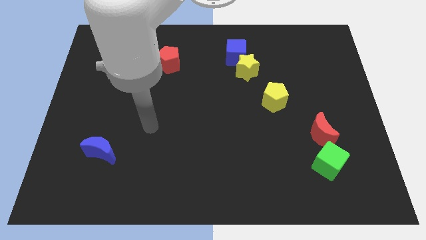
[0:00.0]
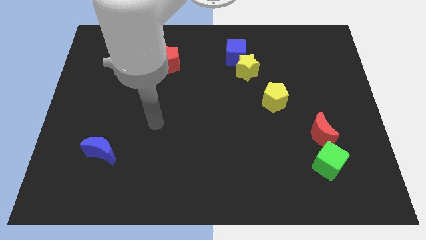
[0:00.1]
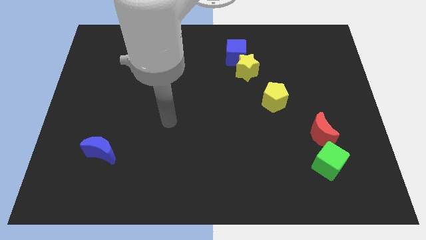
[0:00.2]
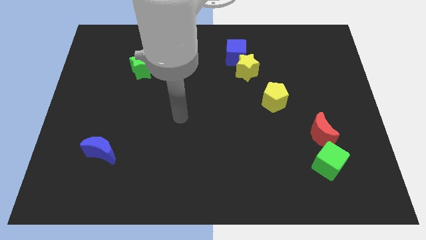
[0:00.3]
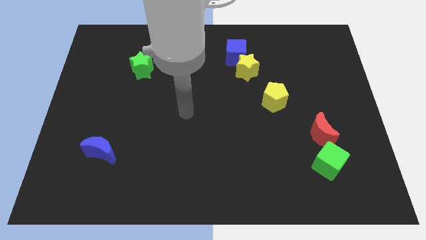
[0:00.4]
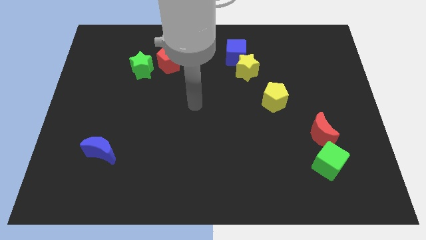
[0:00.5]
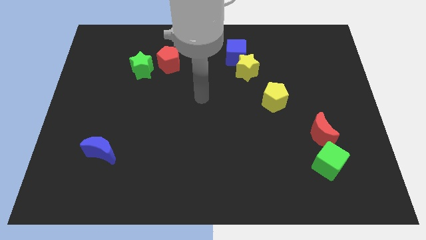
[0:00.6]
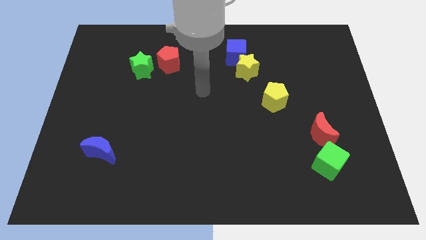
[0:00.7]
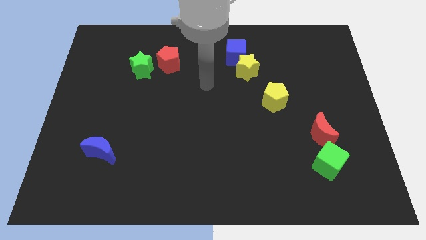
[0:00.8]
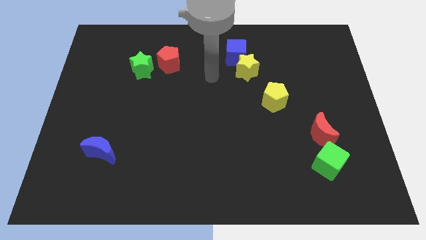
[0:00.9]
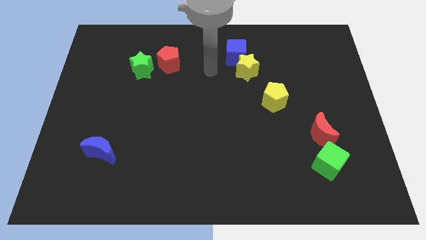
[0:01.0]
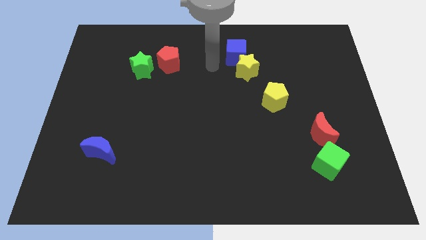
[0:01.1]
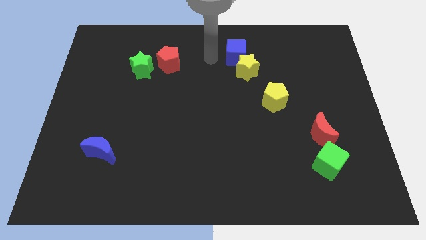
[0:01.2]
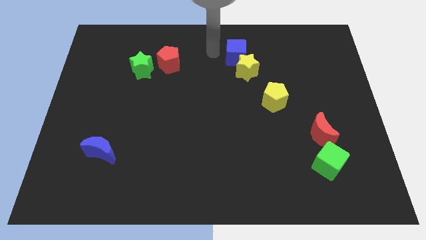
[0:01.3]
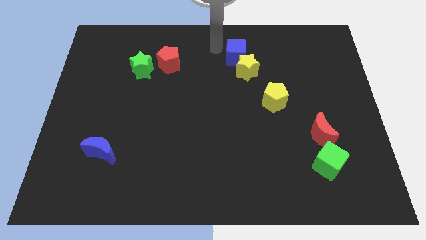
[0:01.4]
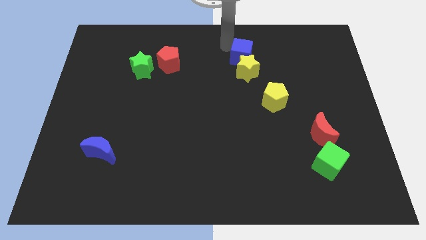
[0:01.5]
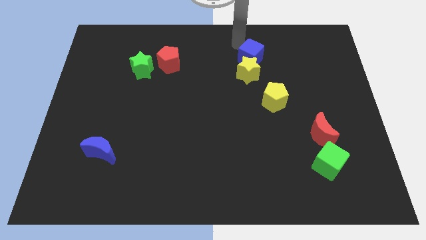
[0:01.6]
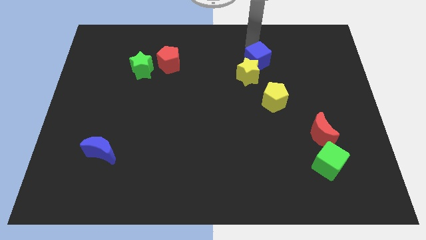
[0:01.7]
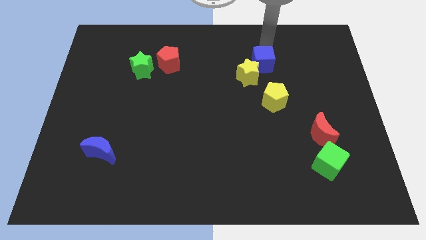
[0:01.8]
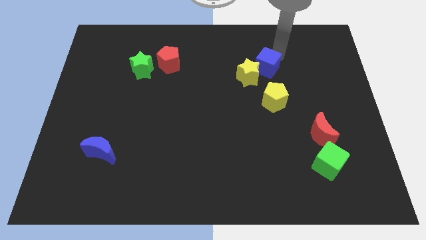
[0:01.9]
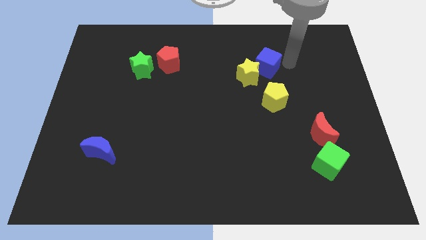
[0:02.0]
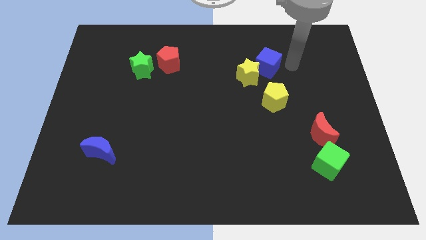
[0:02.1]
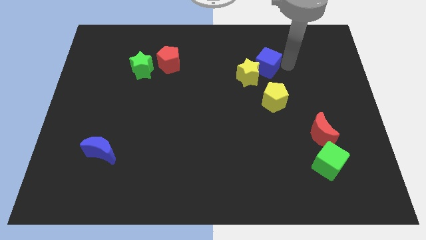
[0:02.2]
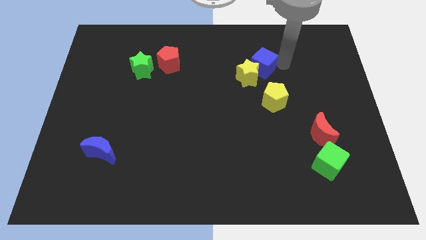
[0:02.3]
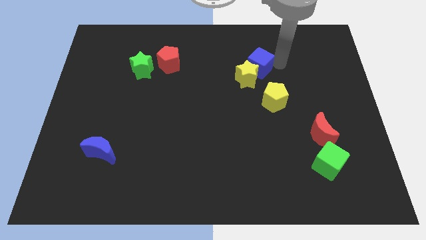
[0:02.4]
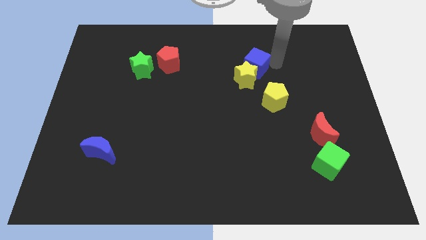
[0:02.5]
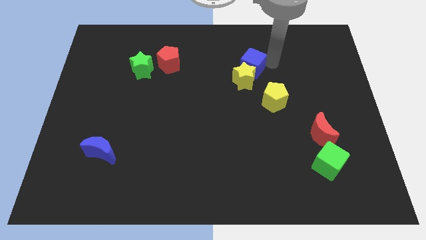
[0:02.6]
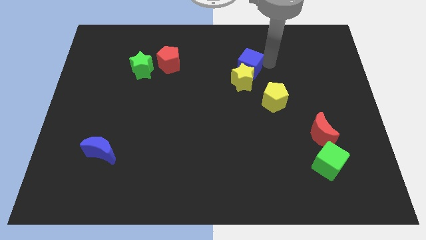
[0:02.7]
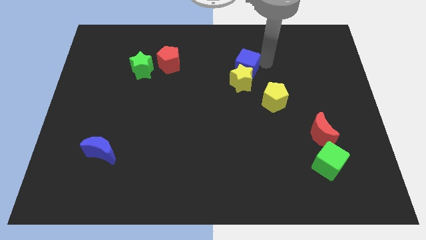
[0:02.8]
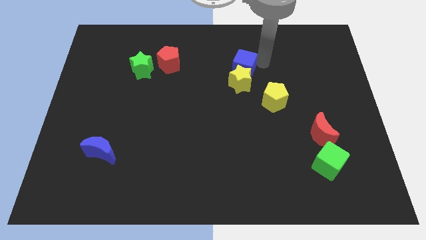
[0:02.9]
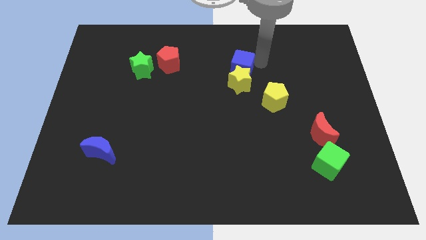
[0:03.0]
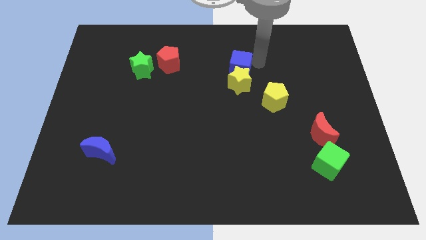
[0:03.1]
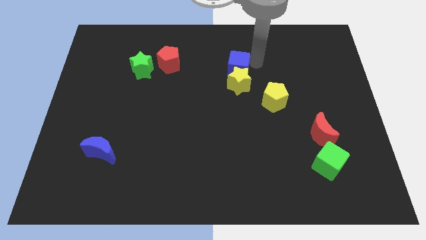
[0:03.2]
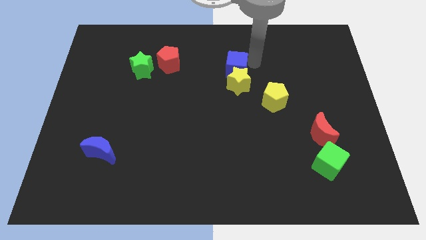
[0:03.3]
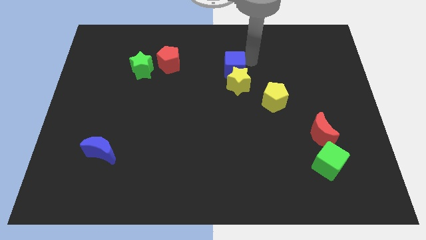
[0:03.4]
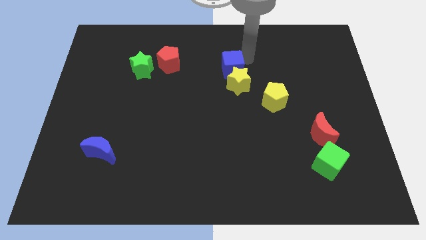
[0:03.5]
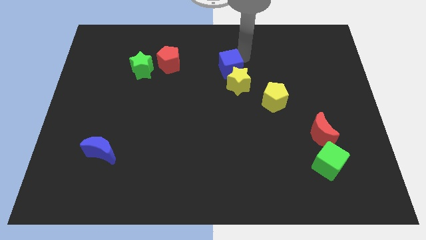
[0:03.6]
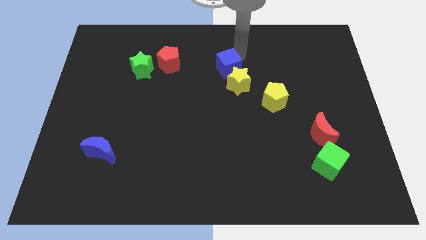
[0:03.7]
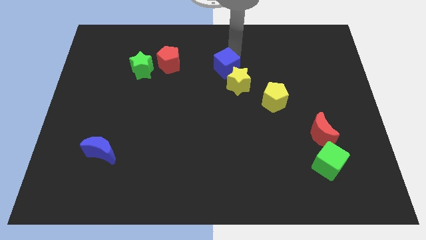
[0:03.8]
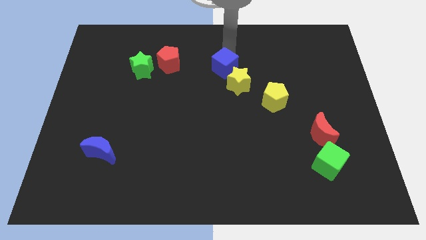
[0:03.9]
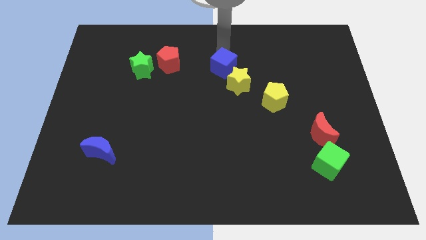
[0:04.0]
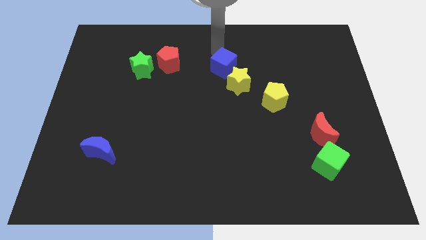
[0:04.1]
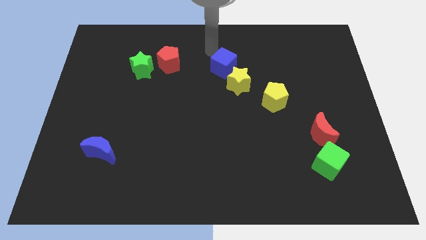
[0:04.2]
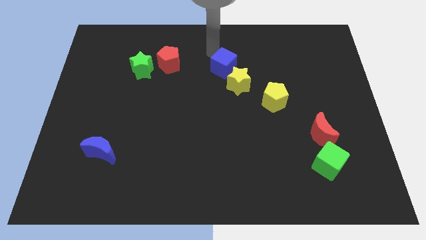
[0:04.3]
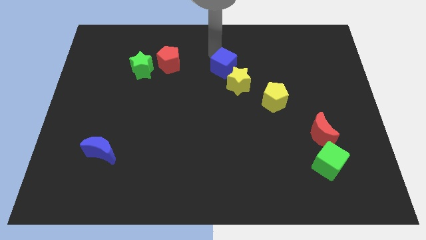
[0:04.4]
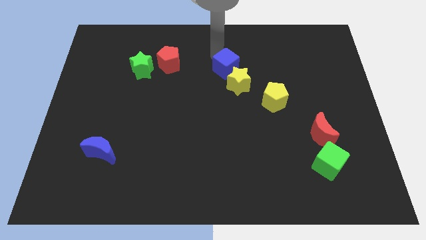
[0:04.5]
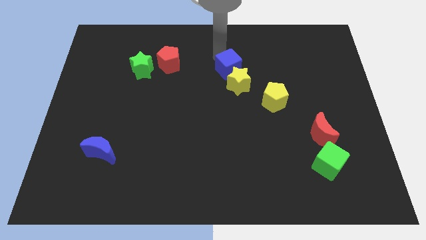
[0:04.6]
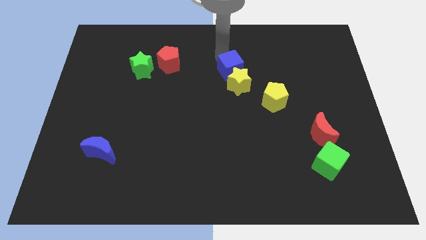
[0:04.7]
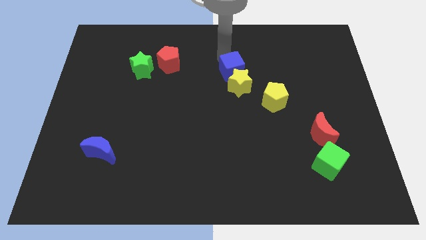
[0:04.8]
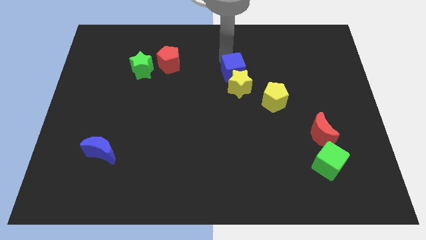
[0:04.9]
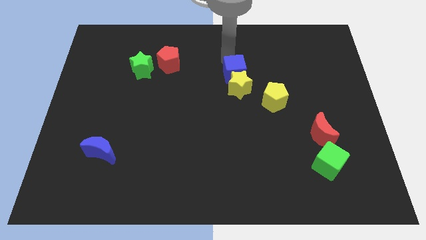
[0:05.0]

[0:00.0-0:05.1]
move the blue cube diagonally up and to the left of the yellow pentagon

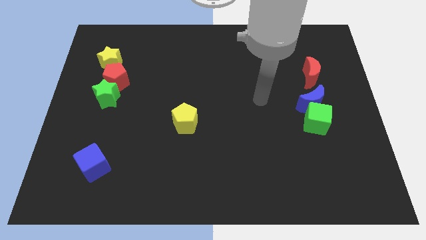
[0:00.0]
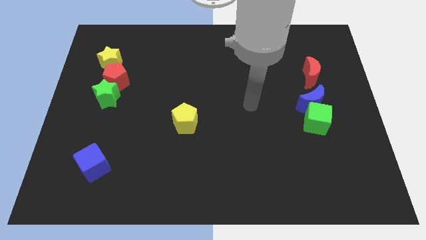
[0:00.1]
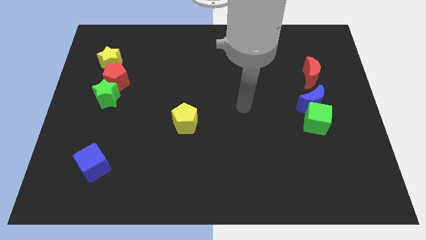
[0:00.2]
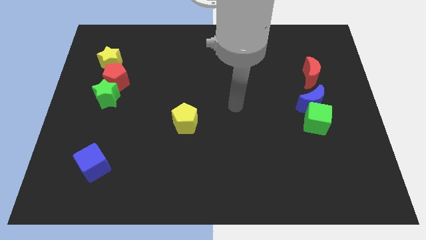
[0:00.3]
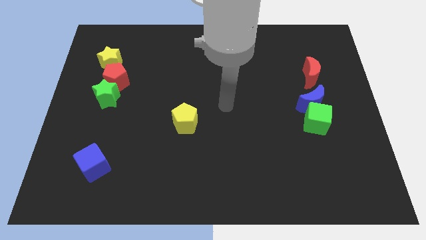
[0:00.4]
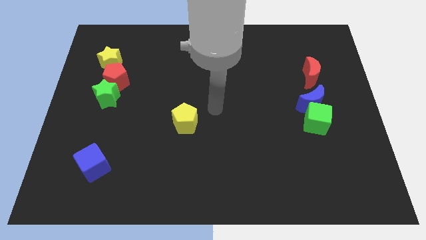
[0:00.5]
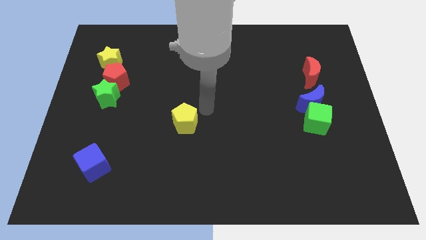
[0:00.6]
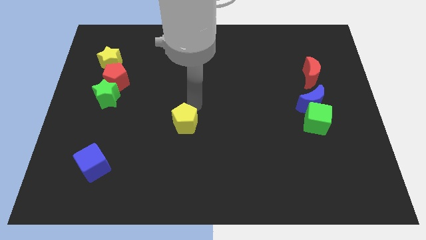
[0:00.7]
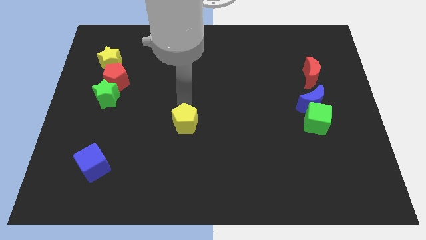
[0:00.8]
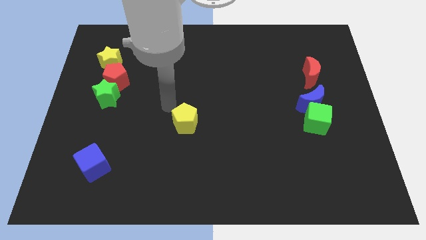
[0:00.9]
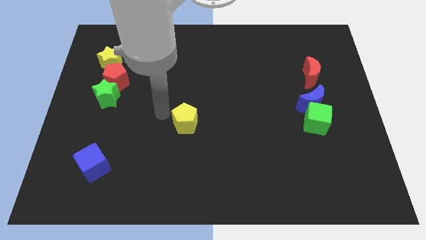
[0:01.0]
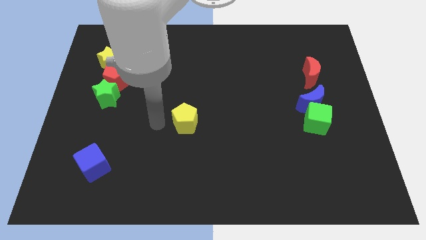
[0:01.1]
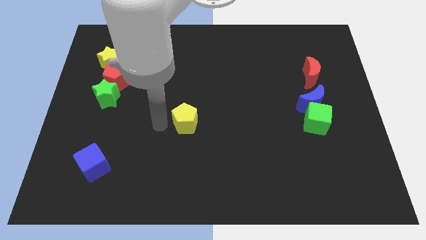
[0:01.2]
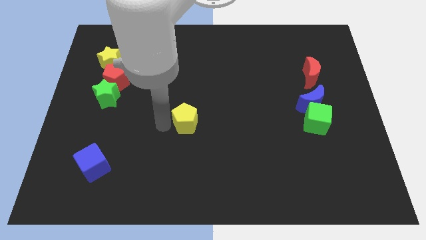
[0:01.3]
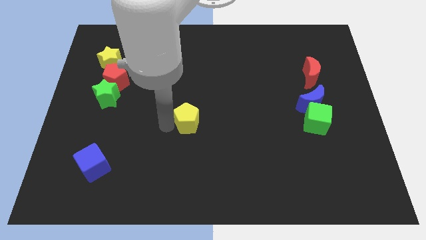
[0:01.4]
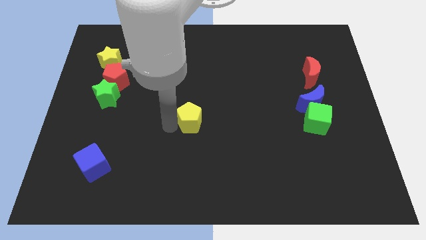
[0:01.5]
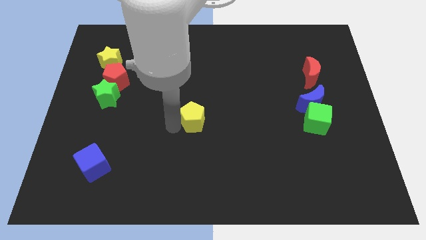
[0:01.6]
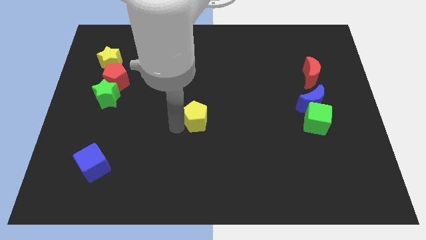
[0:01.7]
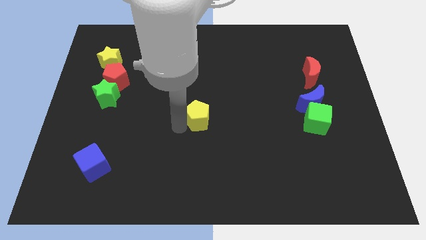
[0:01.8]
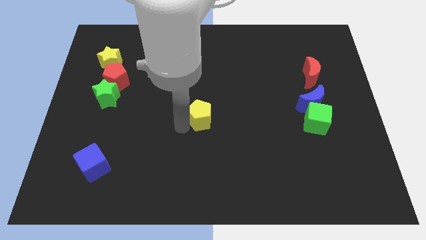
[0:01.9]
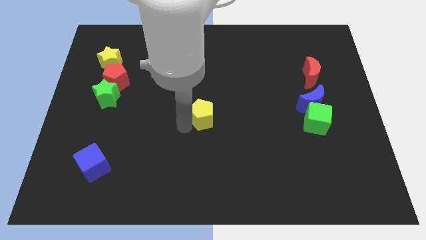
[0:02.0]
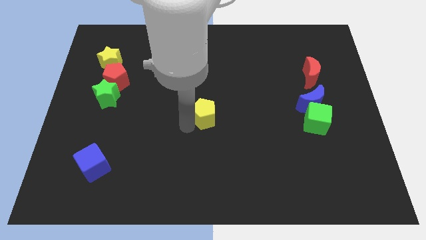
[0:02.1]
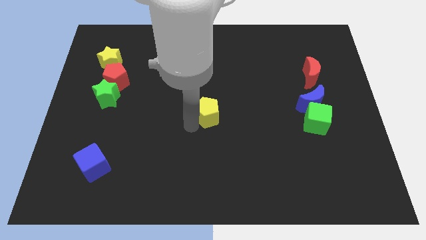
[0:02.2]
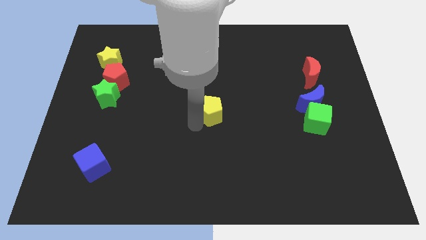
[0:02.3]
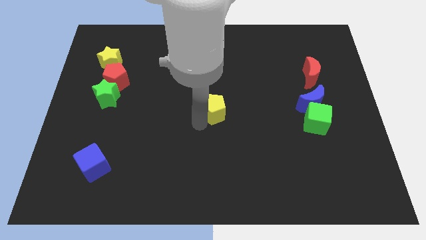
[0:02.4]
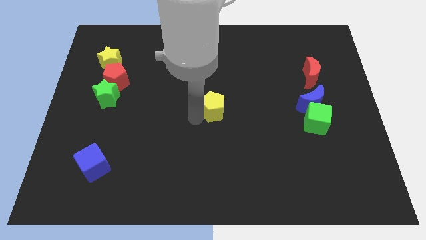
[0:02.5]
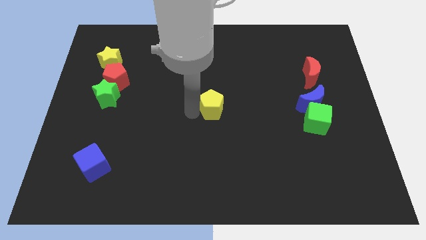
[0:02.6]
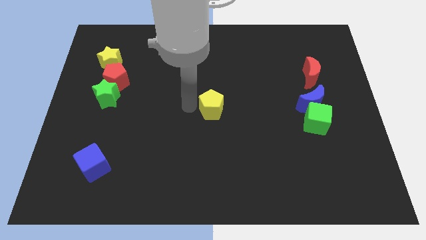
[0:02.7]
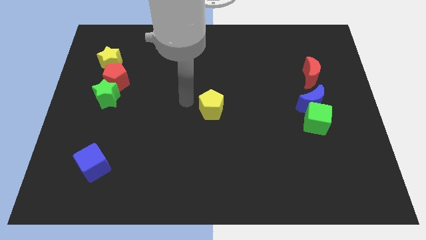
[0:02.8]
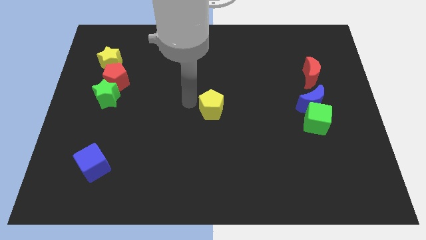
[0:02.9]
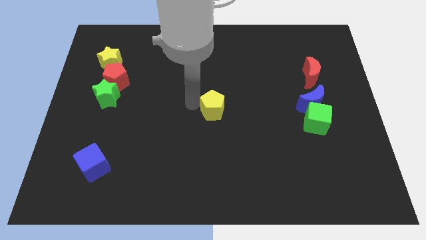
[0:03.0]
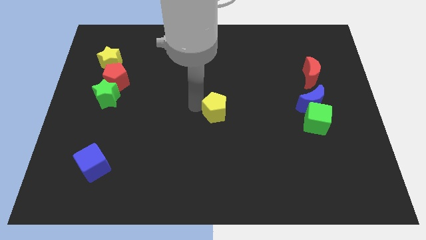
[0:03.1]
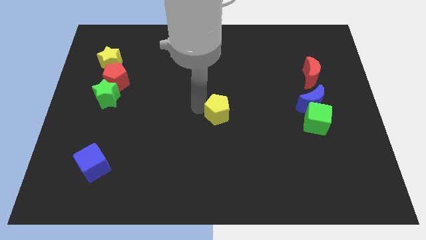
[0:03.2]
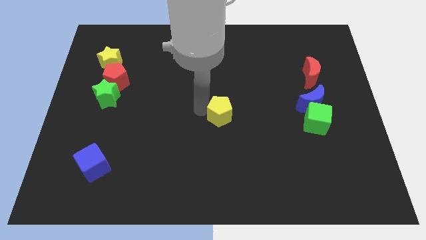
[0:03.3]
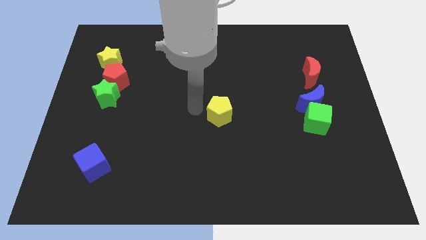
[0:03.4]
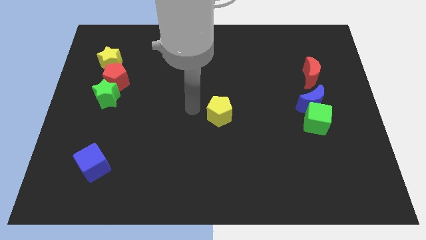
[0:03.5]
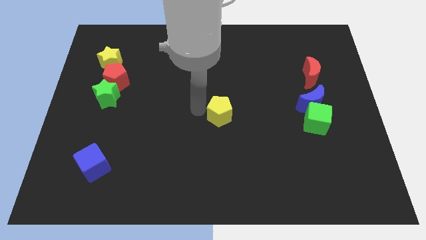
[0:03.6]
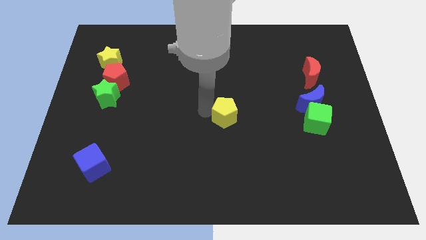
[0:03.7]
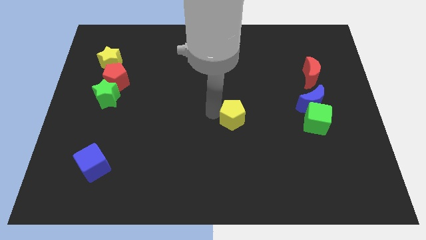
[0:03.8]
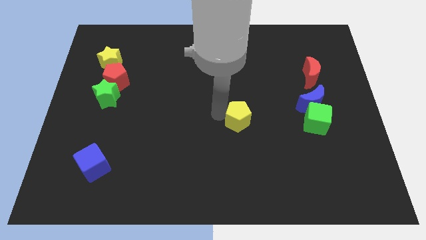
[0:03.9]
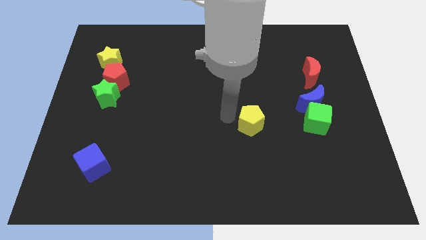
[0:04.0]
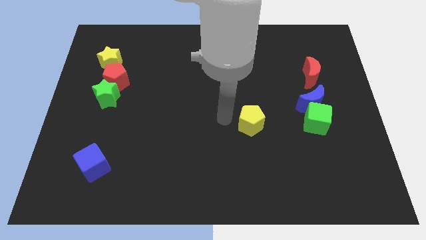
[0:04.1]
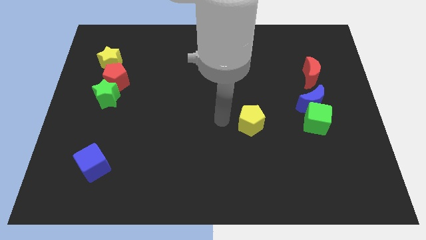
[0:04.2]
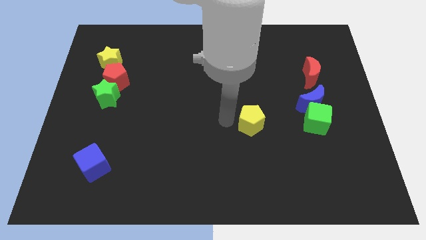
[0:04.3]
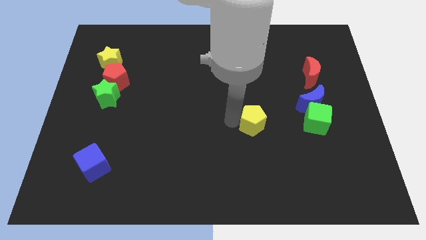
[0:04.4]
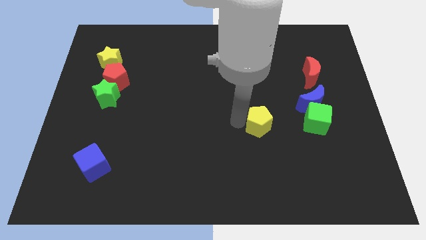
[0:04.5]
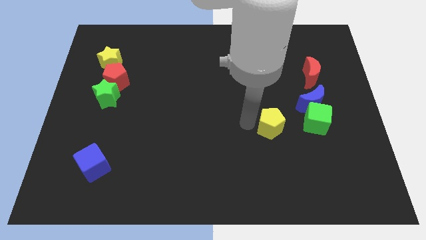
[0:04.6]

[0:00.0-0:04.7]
put the yellow pentagon to the bottom left side of the blue moon
